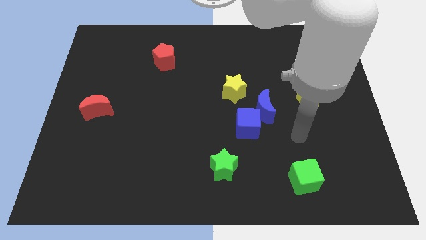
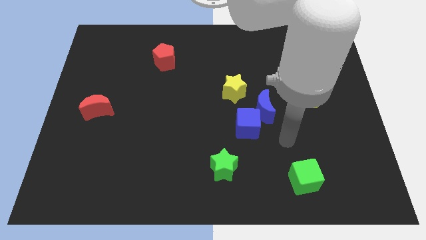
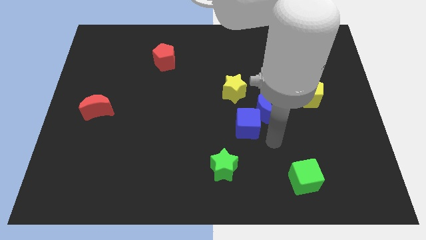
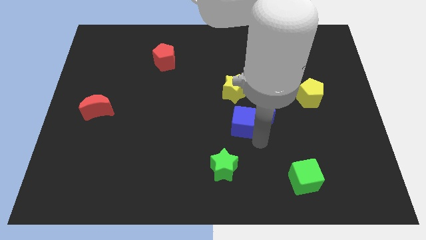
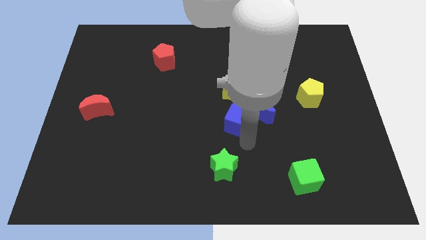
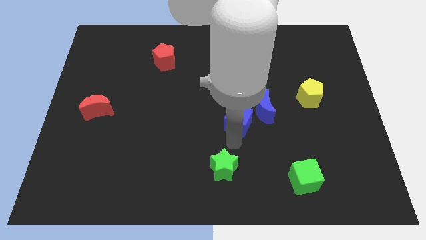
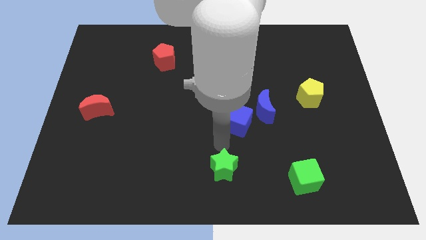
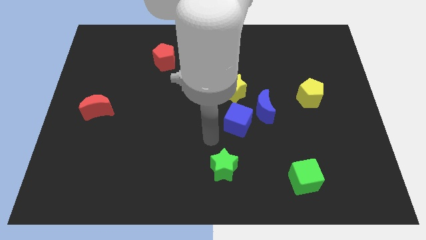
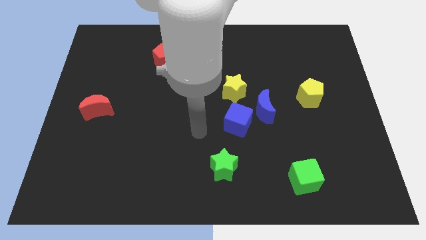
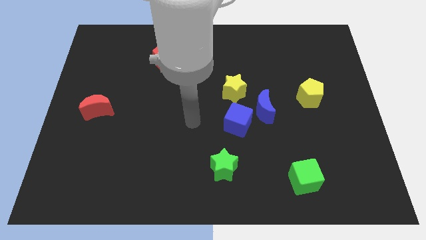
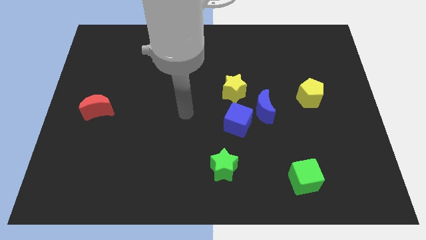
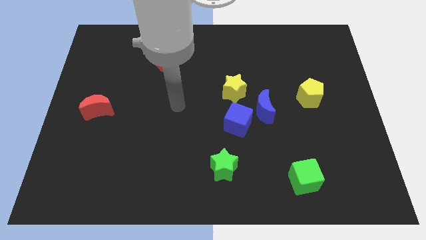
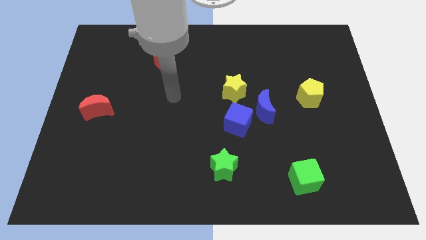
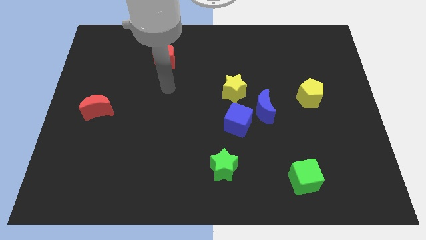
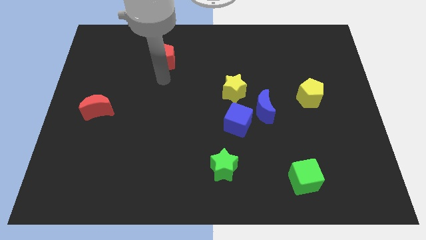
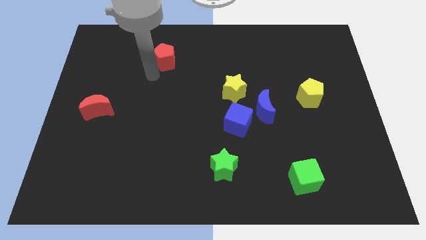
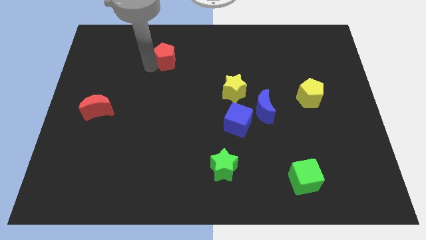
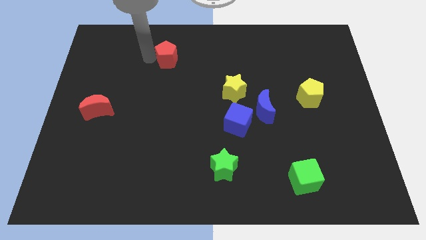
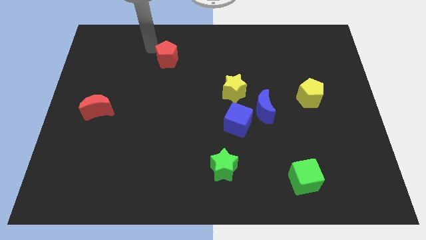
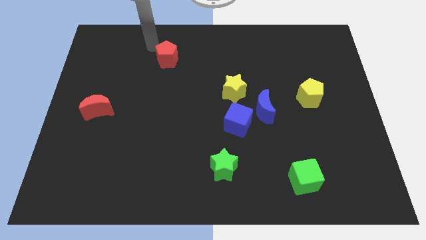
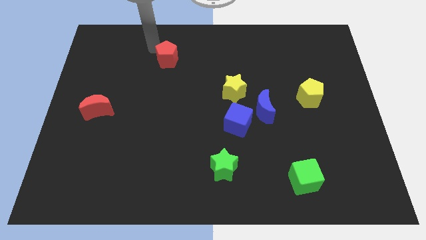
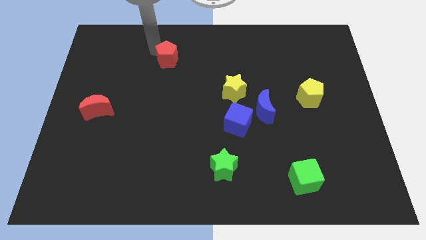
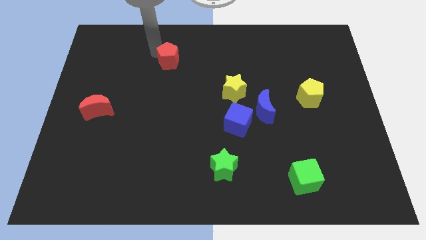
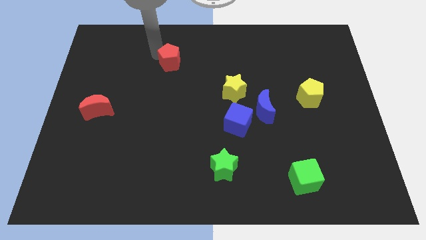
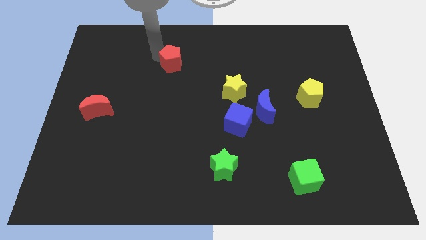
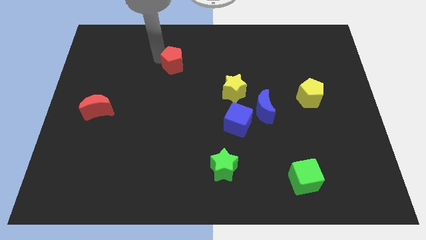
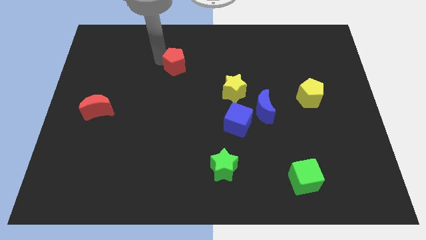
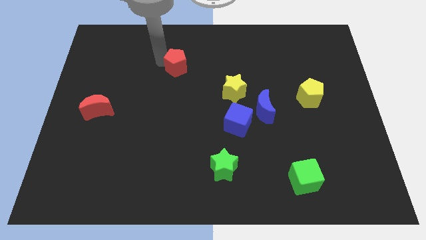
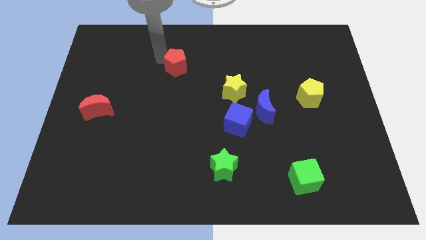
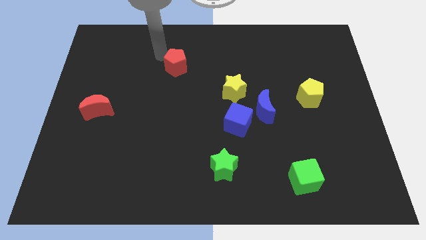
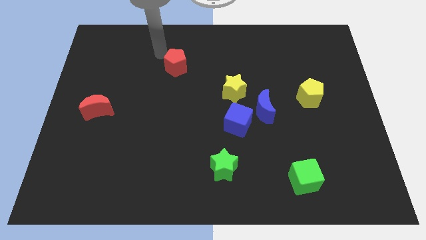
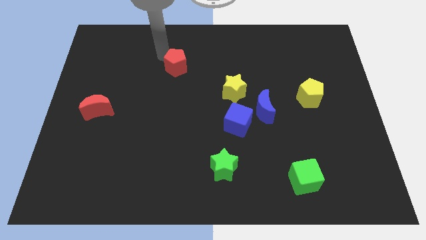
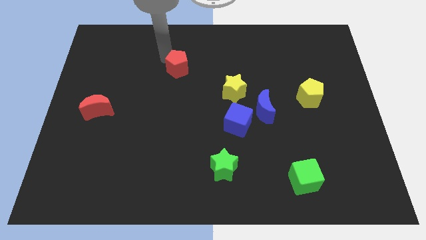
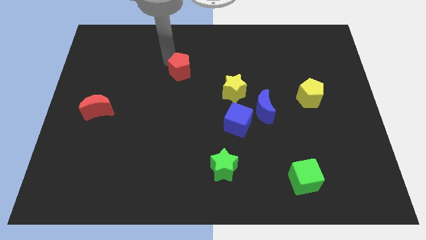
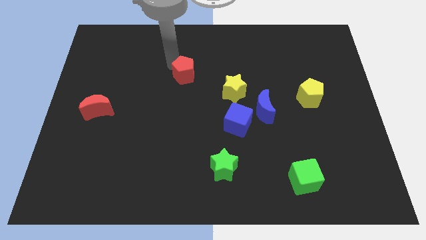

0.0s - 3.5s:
move the red pentagon a bit down and to the right diagonally

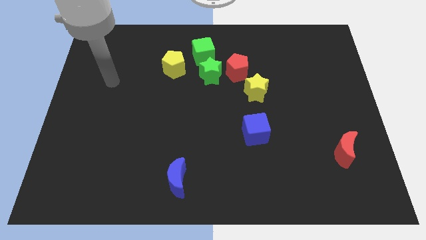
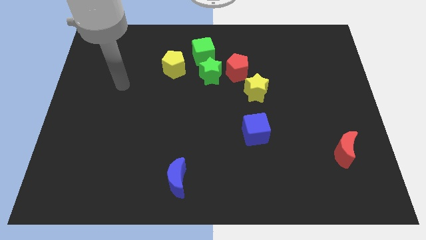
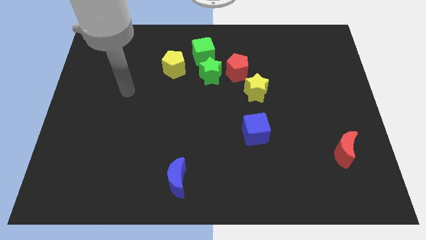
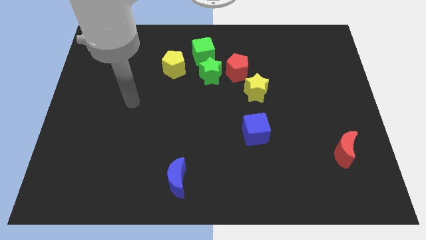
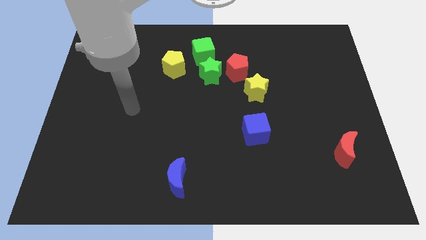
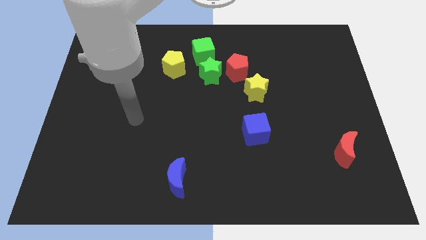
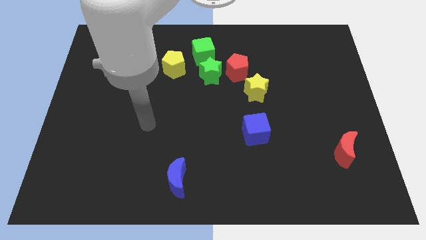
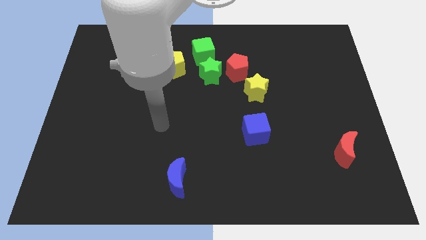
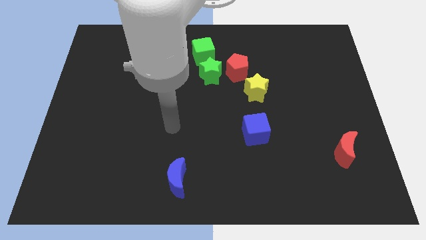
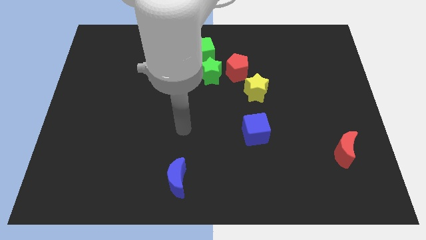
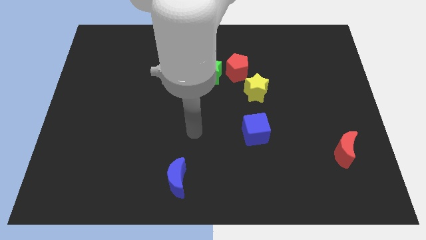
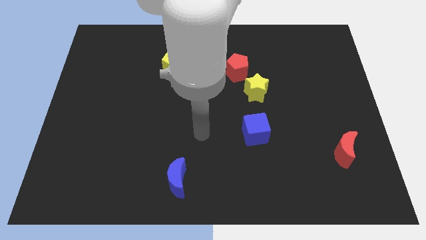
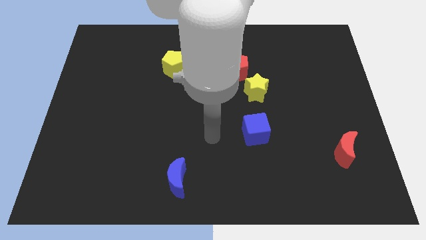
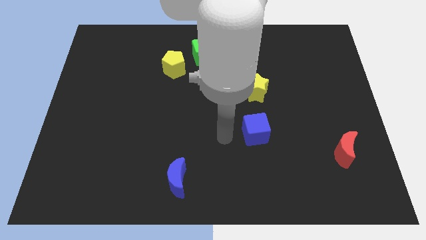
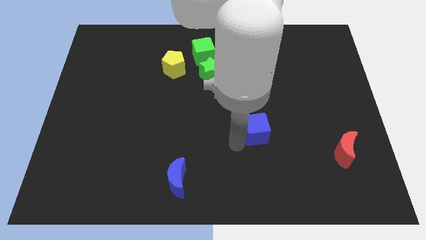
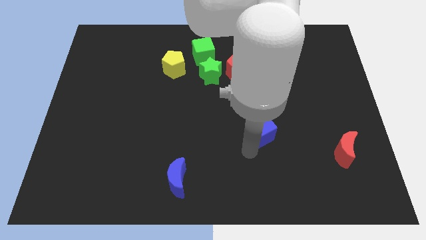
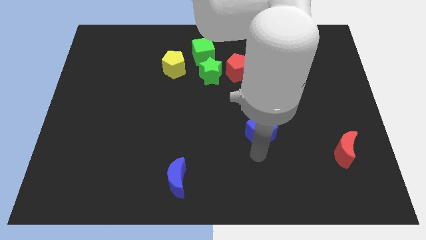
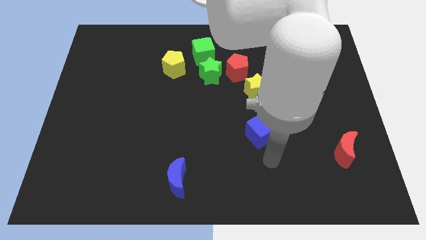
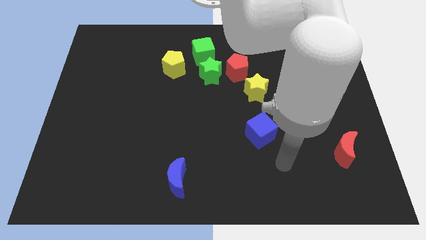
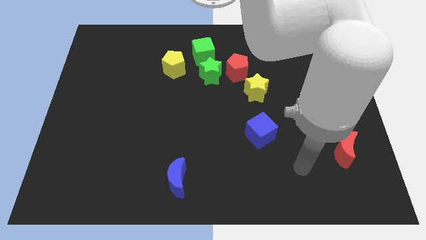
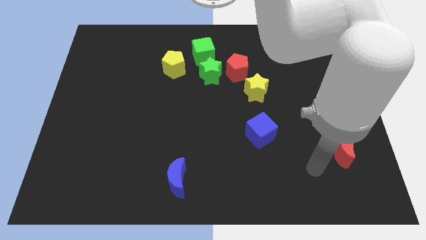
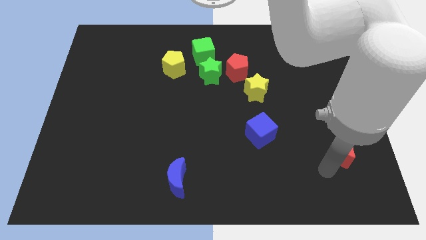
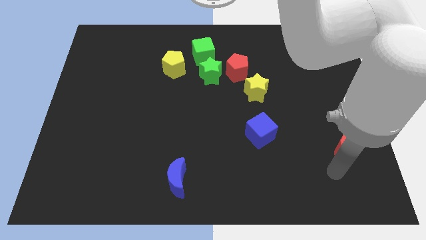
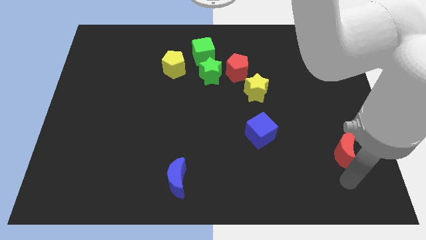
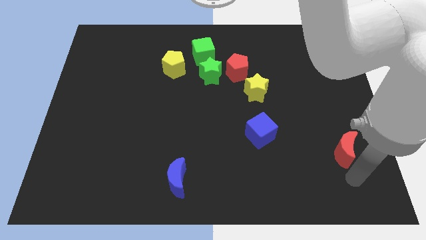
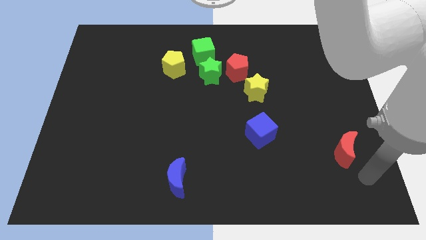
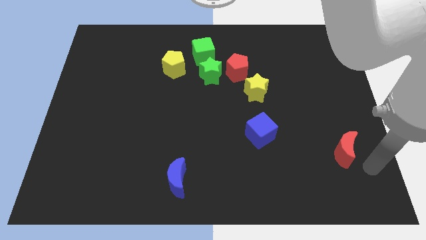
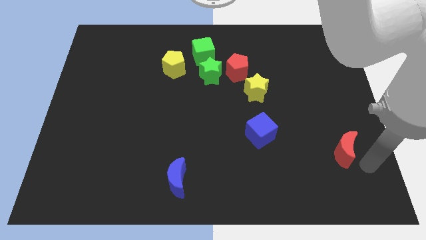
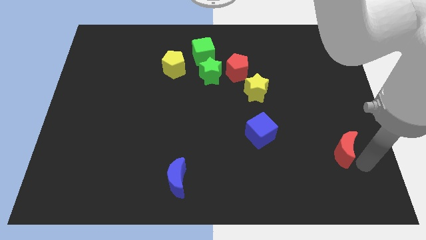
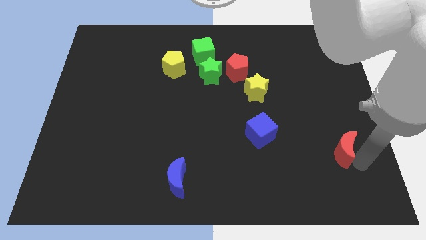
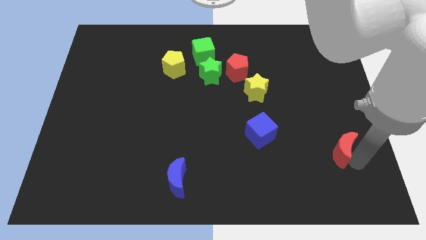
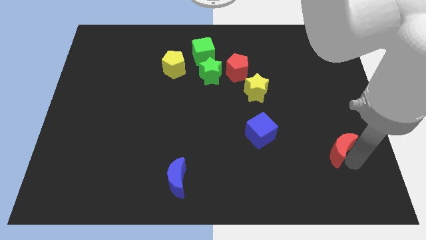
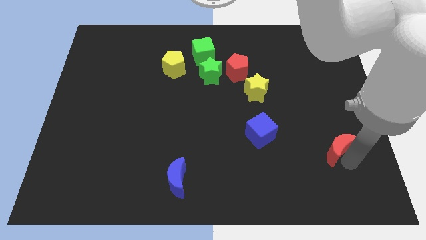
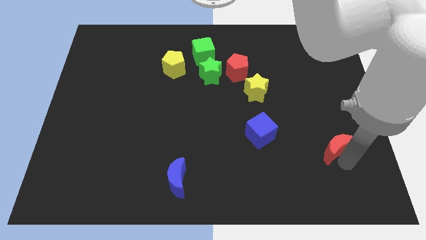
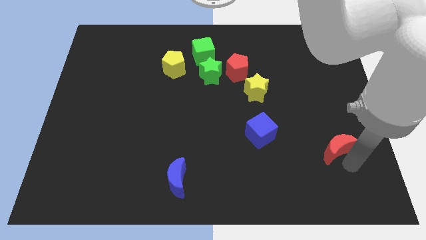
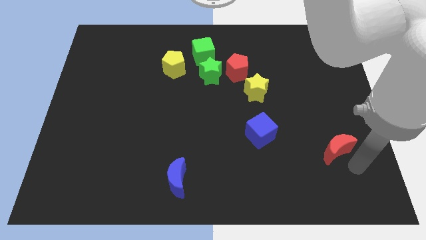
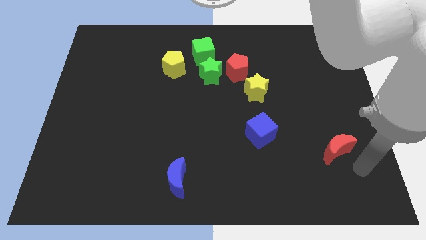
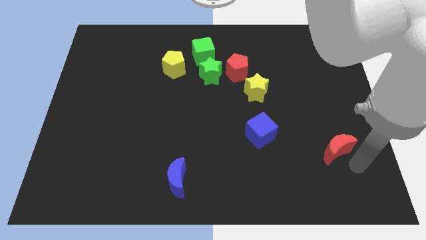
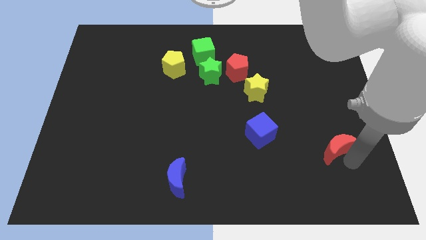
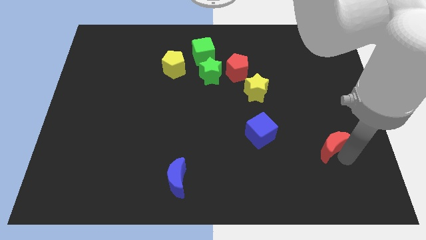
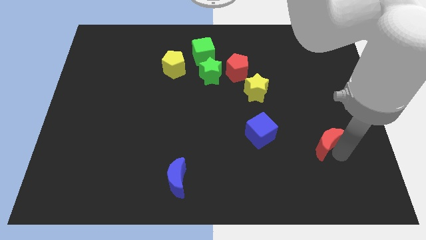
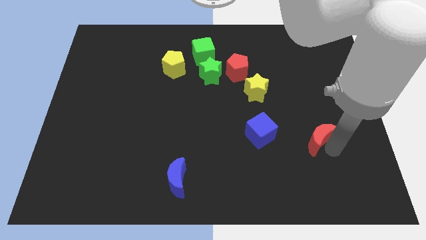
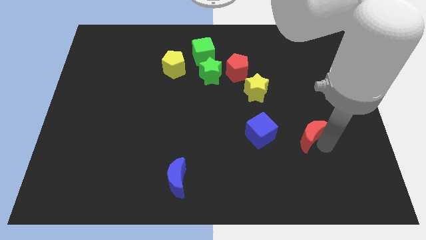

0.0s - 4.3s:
slightly push the red moon upwards and then left
